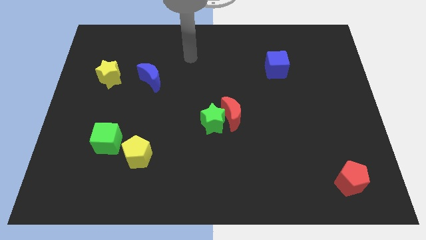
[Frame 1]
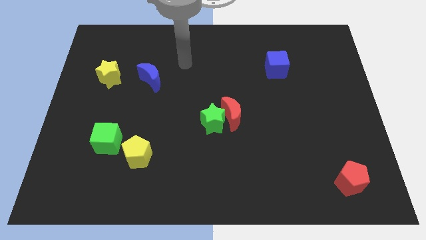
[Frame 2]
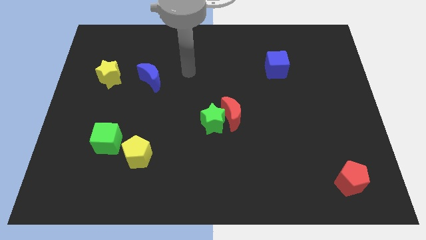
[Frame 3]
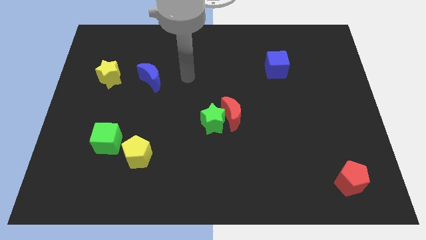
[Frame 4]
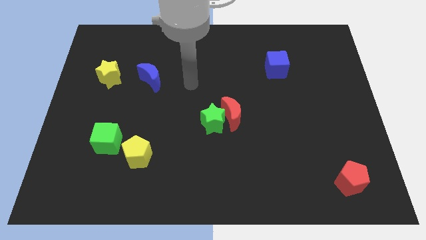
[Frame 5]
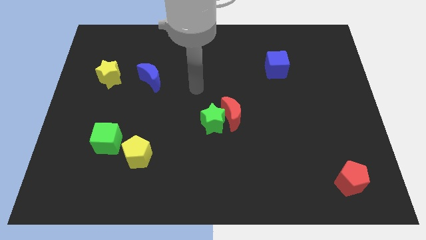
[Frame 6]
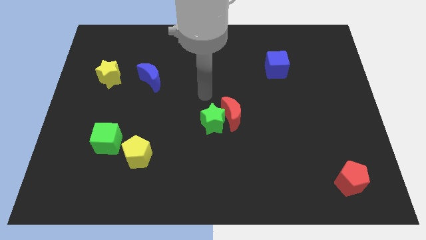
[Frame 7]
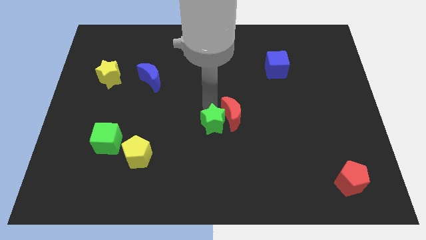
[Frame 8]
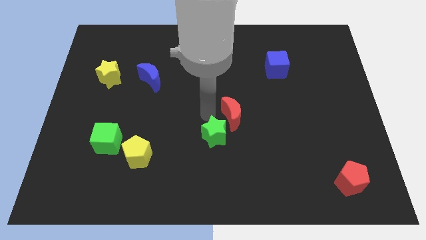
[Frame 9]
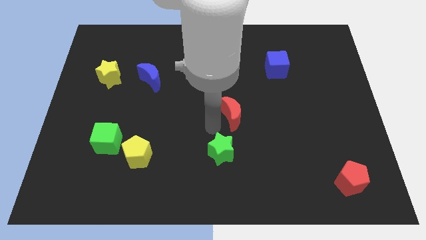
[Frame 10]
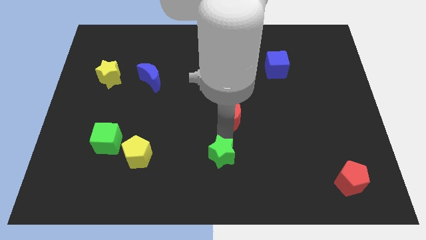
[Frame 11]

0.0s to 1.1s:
move the red moon away from the green star

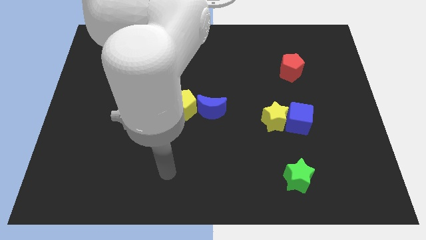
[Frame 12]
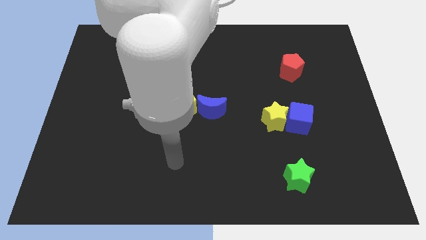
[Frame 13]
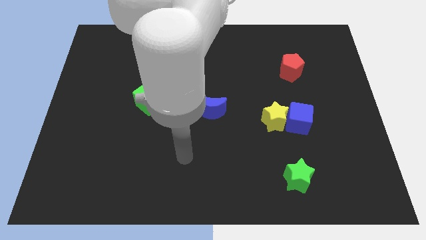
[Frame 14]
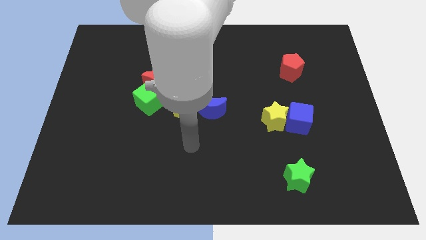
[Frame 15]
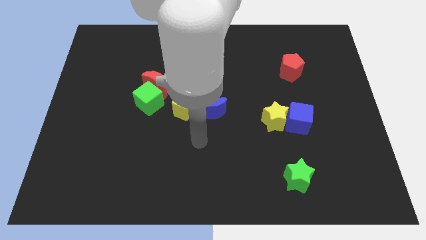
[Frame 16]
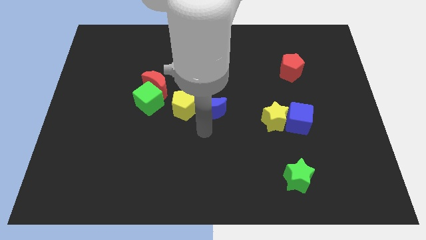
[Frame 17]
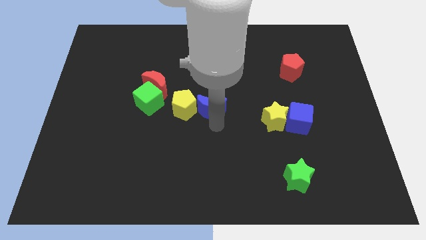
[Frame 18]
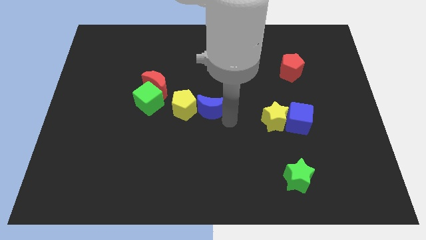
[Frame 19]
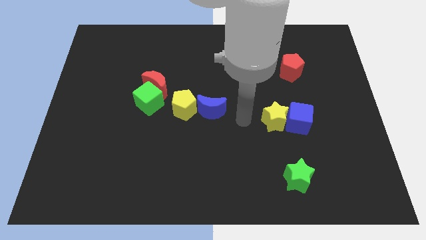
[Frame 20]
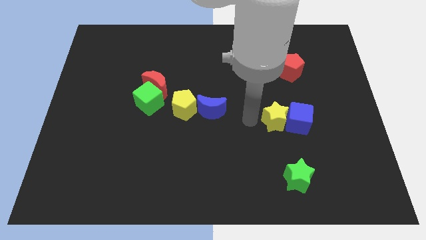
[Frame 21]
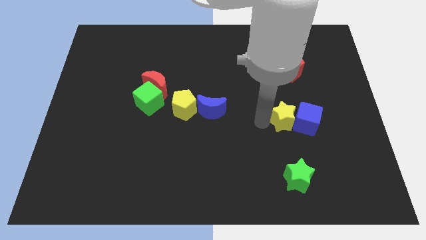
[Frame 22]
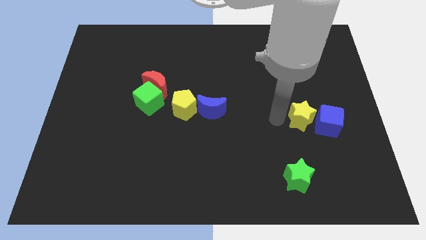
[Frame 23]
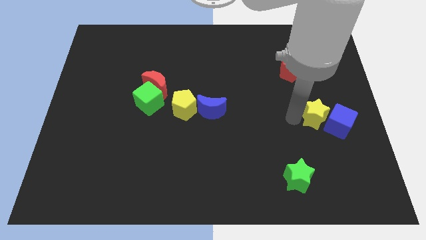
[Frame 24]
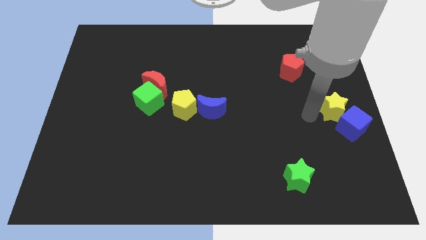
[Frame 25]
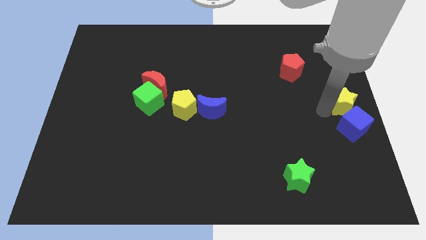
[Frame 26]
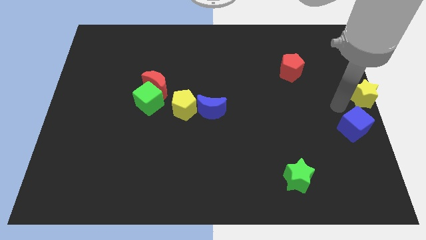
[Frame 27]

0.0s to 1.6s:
move the blue cube away from the yellow star

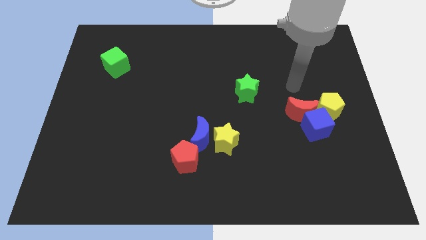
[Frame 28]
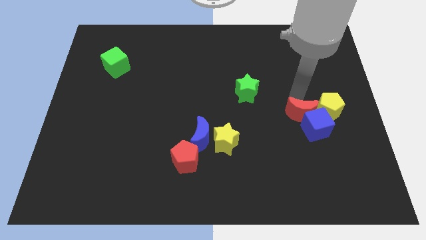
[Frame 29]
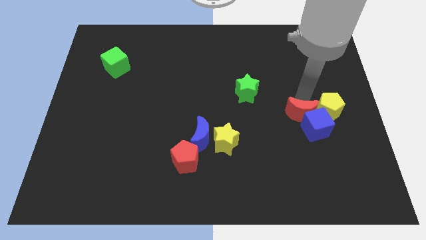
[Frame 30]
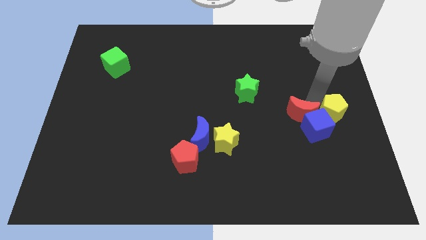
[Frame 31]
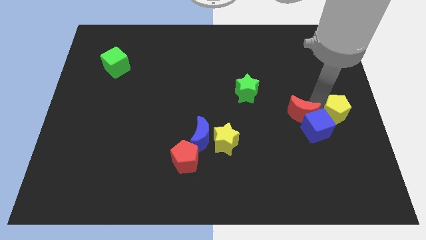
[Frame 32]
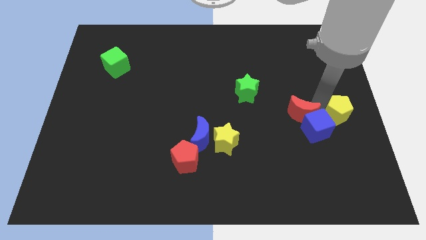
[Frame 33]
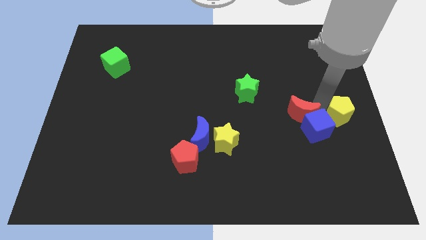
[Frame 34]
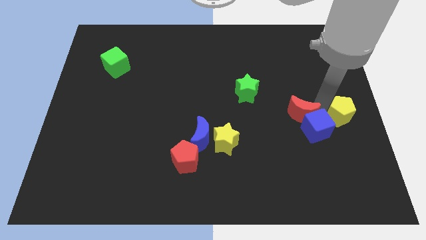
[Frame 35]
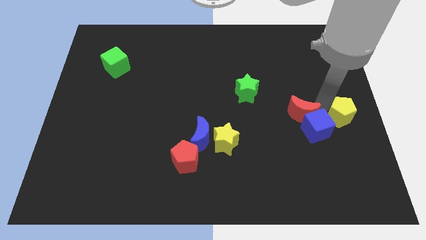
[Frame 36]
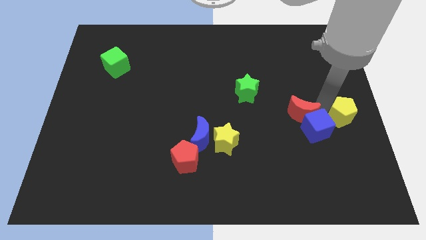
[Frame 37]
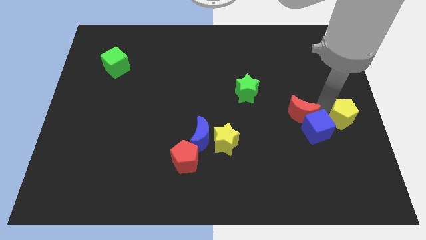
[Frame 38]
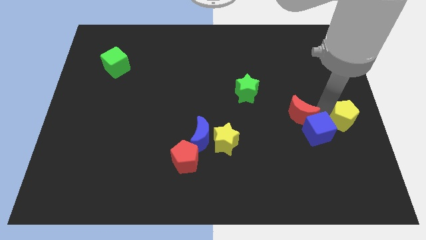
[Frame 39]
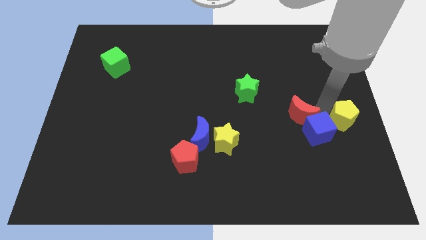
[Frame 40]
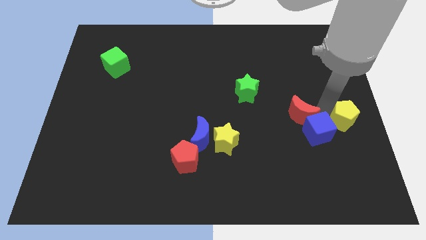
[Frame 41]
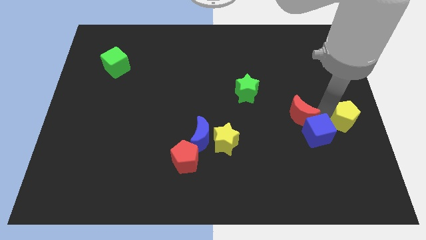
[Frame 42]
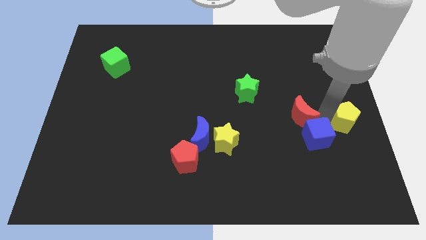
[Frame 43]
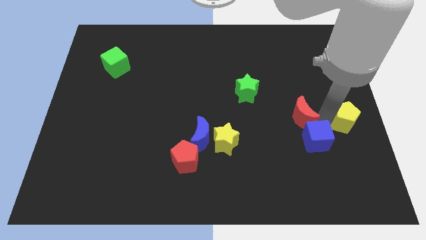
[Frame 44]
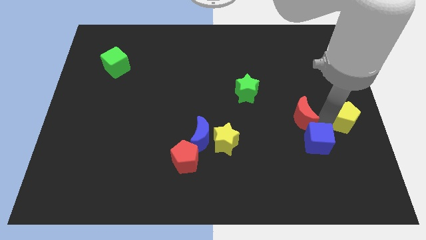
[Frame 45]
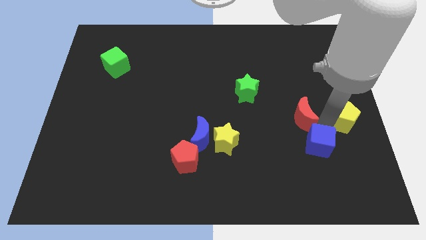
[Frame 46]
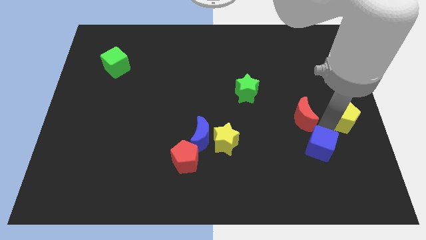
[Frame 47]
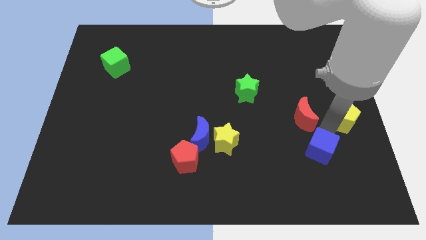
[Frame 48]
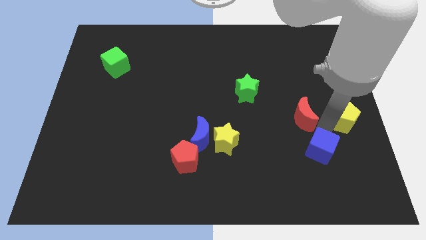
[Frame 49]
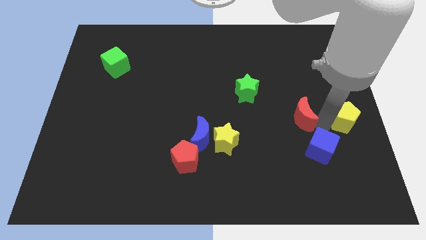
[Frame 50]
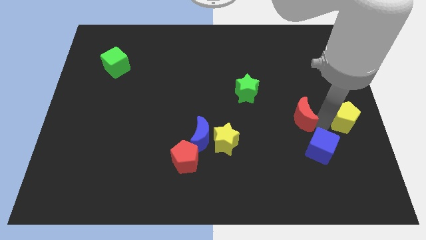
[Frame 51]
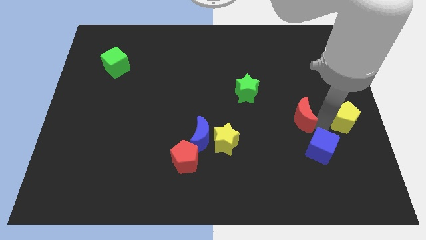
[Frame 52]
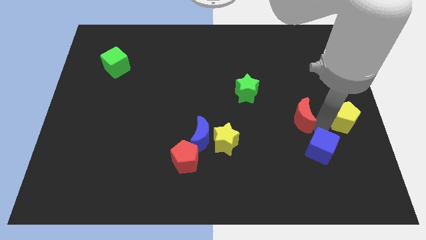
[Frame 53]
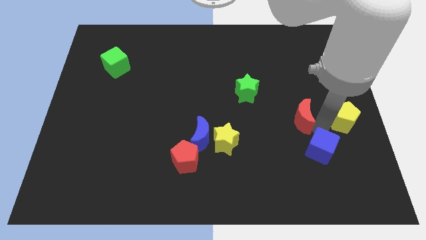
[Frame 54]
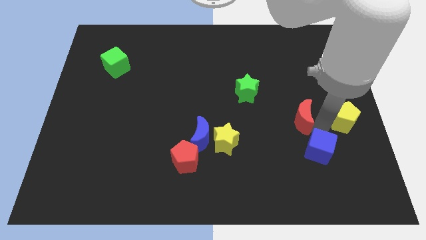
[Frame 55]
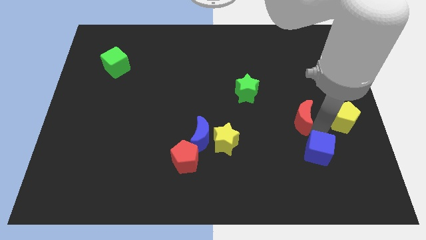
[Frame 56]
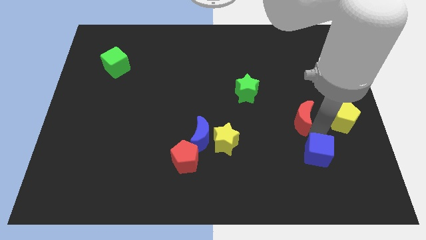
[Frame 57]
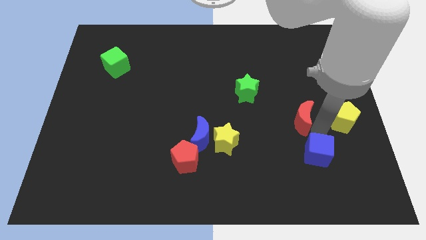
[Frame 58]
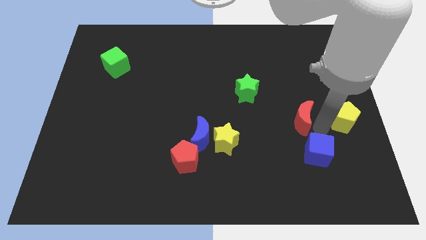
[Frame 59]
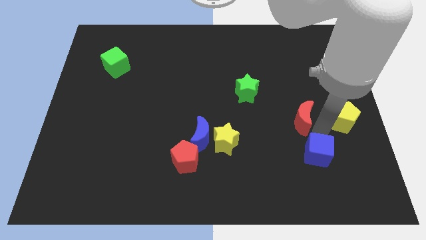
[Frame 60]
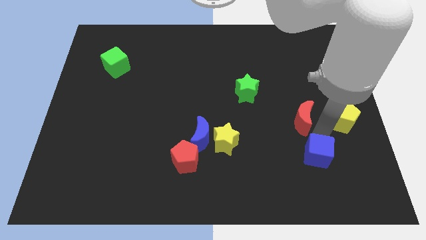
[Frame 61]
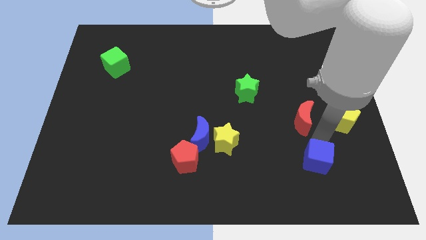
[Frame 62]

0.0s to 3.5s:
pull the blue cube apart from the red moon and yellow pentagon

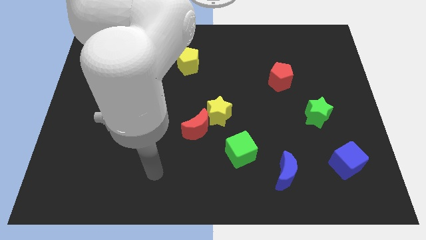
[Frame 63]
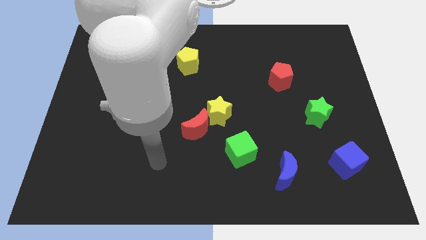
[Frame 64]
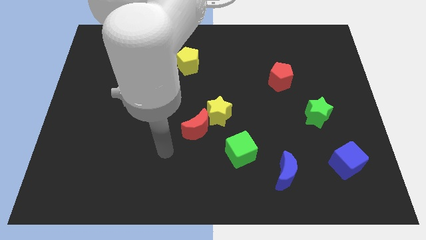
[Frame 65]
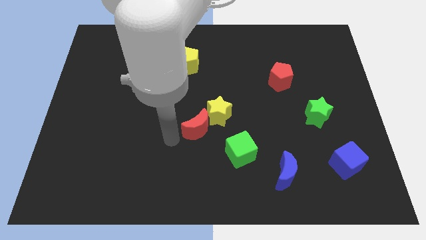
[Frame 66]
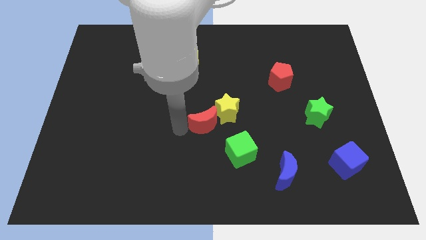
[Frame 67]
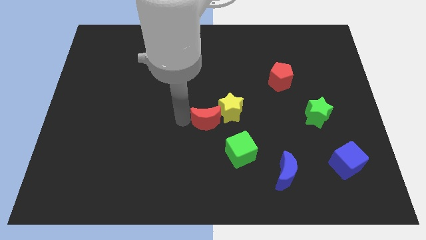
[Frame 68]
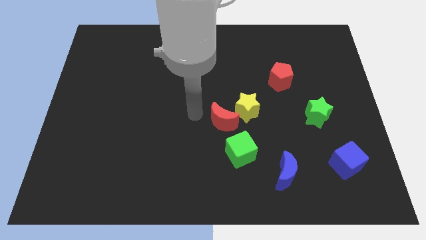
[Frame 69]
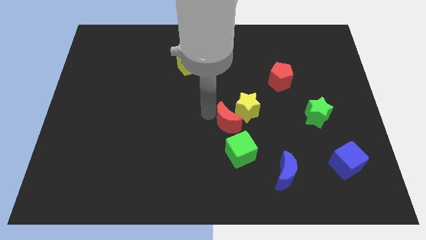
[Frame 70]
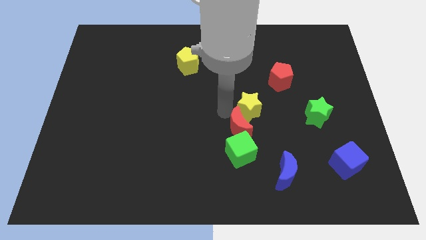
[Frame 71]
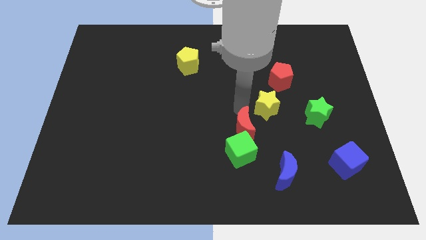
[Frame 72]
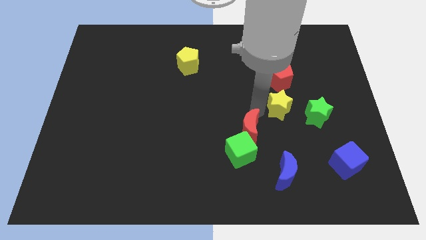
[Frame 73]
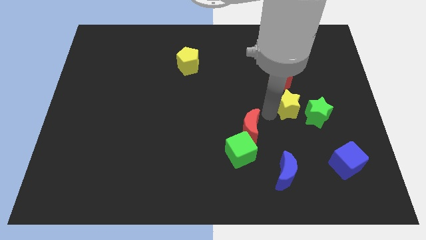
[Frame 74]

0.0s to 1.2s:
pull the red moon apart from the yellow star

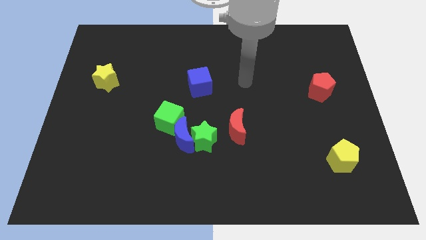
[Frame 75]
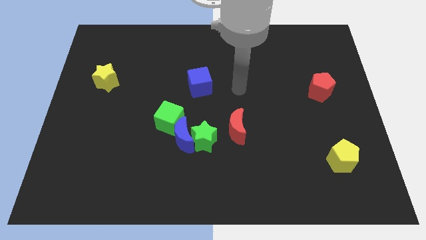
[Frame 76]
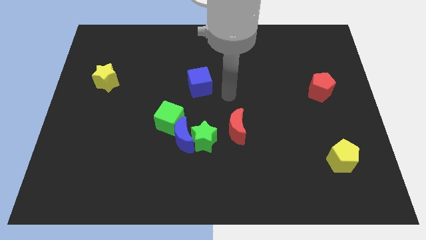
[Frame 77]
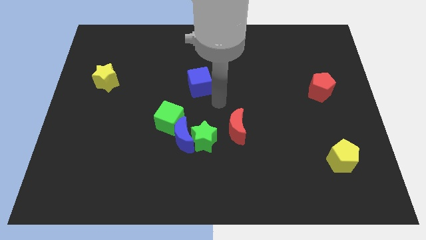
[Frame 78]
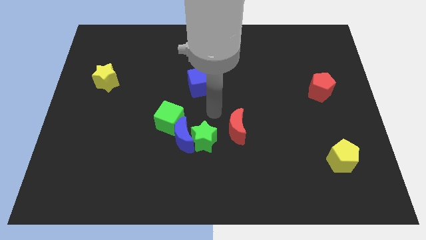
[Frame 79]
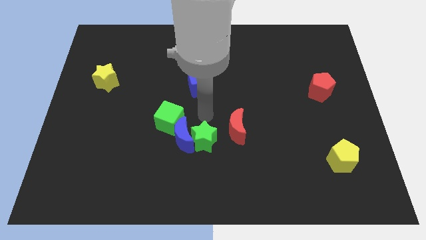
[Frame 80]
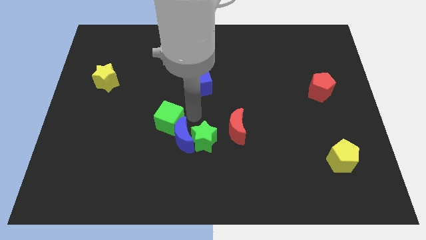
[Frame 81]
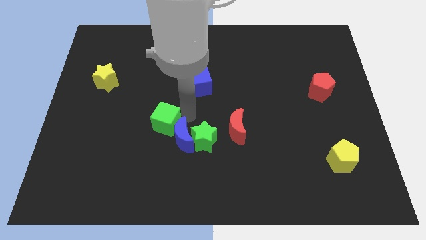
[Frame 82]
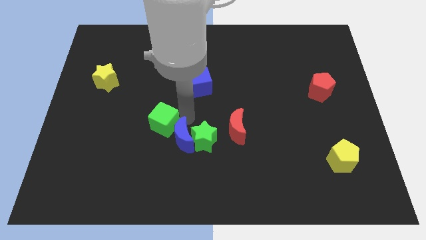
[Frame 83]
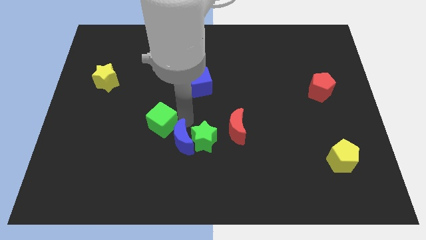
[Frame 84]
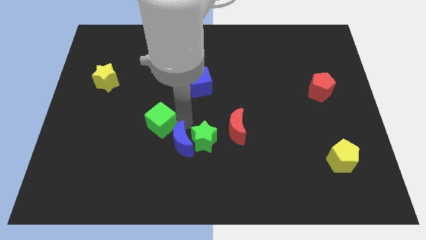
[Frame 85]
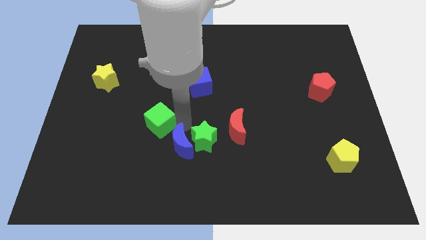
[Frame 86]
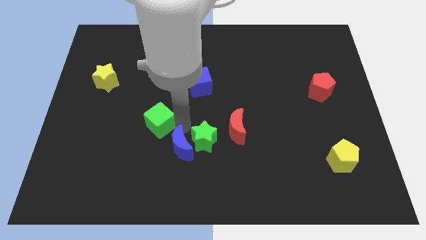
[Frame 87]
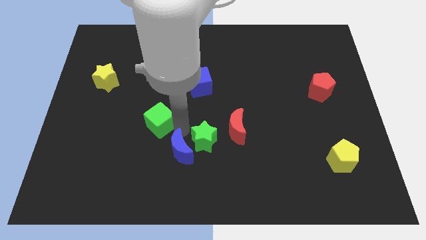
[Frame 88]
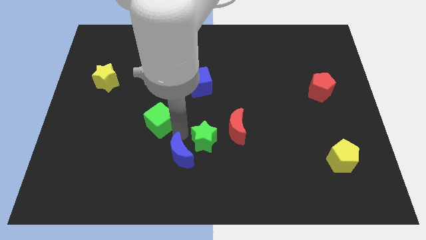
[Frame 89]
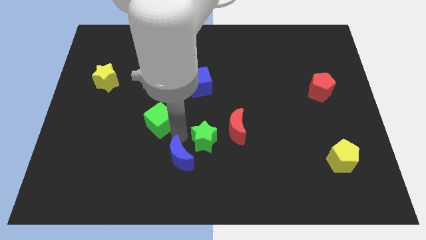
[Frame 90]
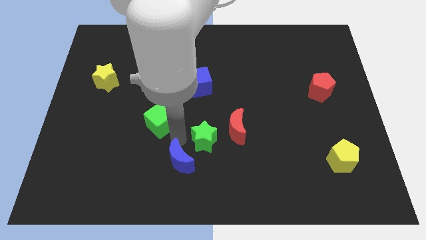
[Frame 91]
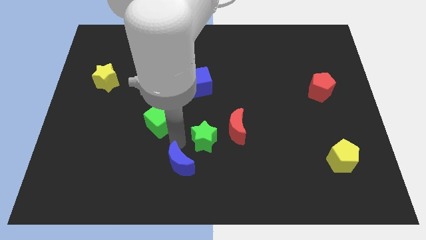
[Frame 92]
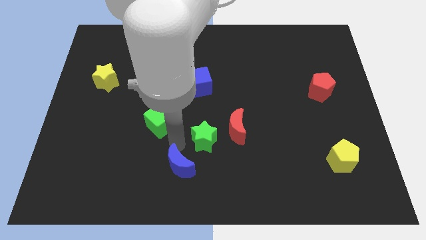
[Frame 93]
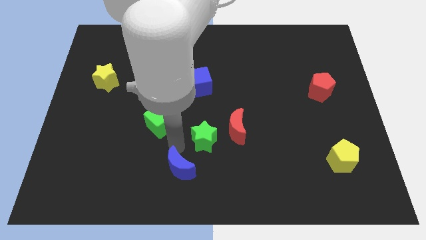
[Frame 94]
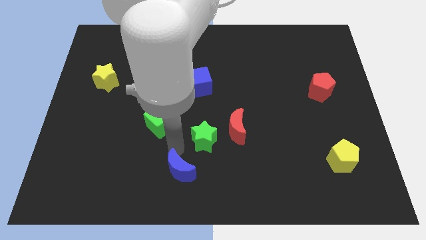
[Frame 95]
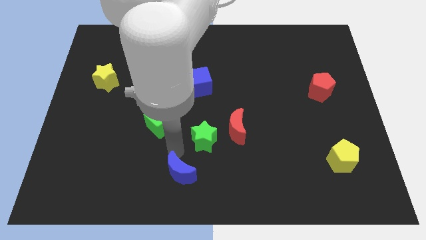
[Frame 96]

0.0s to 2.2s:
separate the blue moon from the green star and green cube
